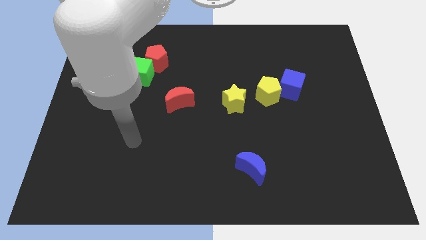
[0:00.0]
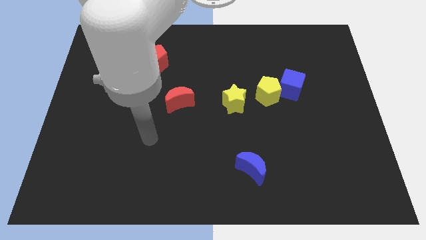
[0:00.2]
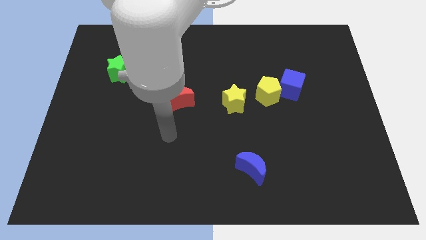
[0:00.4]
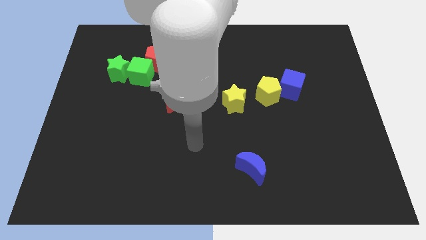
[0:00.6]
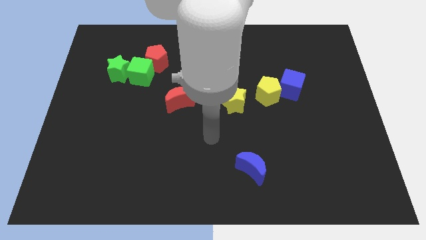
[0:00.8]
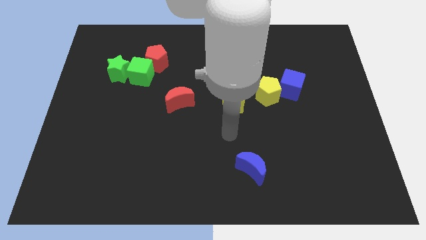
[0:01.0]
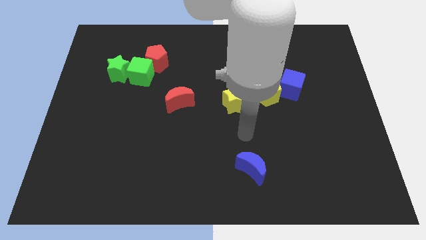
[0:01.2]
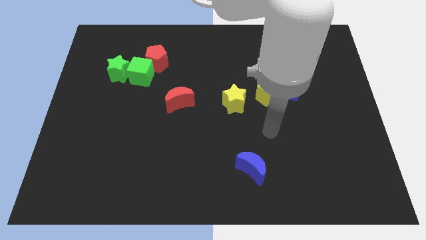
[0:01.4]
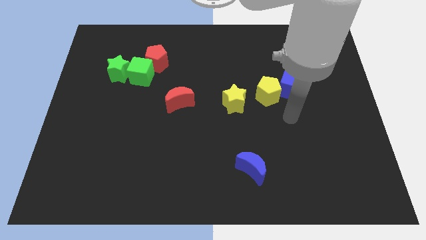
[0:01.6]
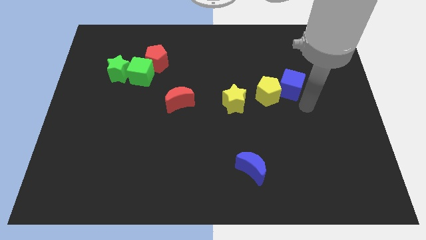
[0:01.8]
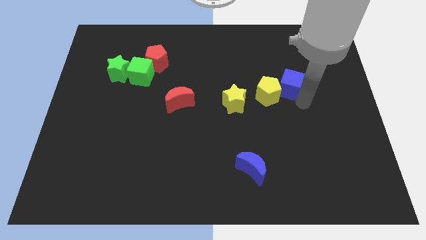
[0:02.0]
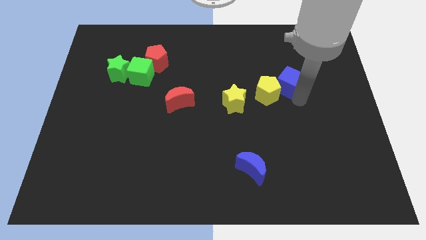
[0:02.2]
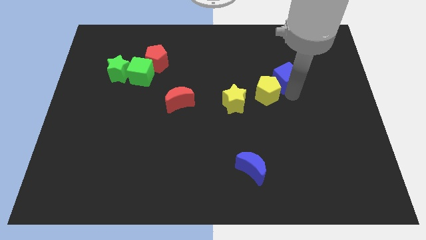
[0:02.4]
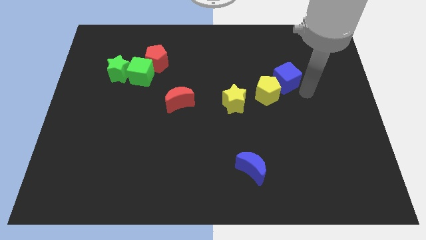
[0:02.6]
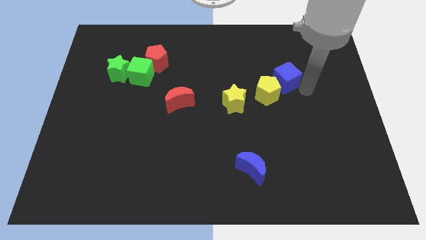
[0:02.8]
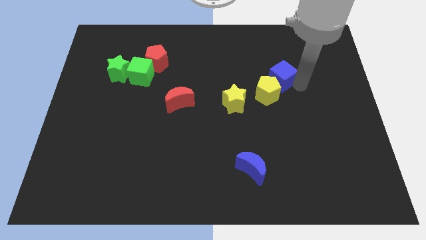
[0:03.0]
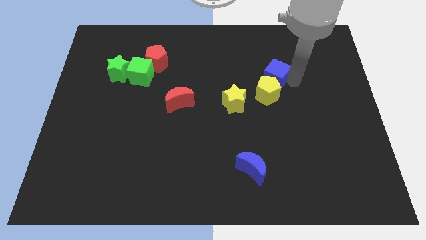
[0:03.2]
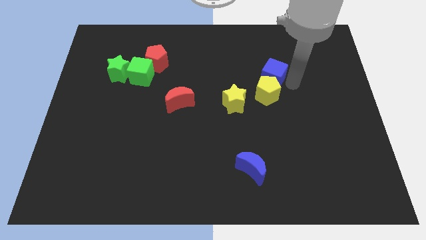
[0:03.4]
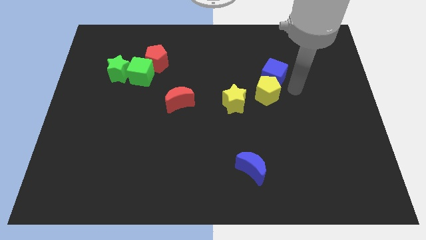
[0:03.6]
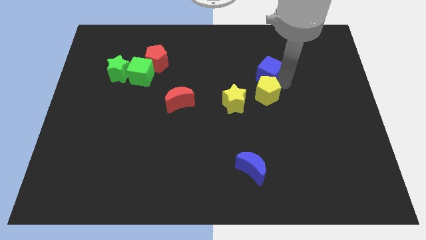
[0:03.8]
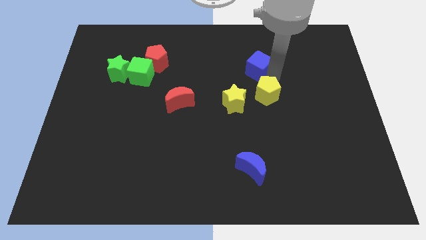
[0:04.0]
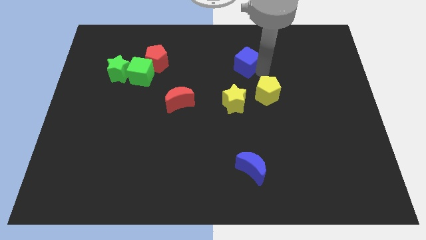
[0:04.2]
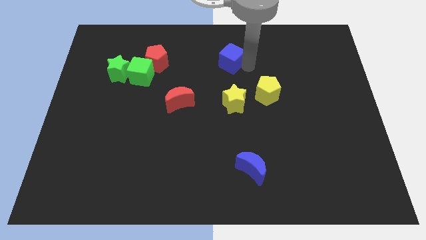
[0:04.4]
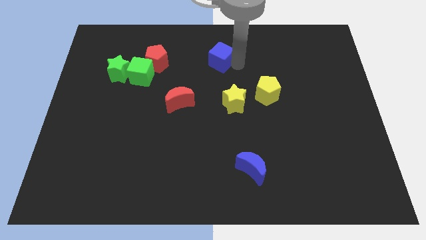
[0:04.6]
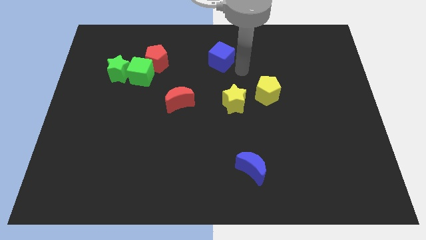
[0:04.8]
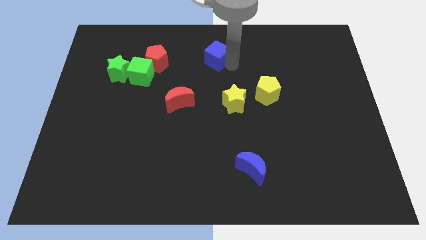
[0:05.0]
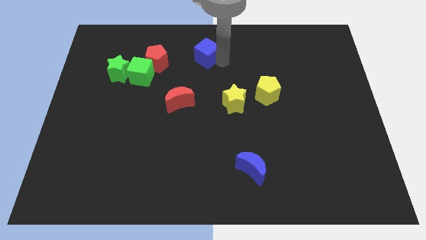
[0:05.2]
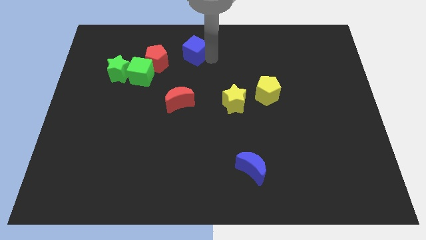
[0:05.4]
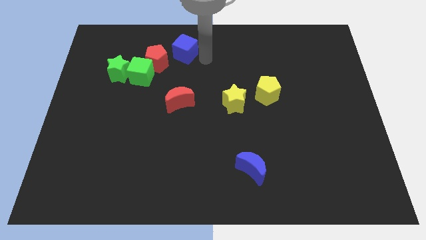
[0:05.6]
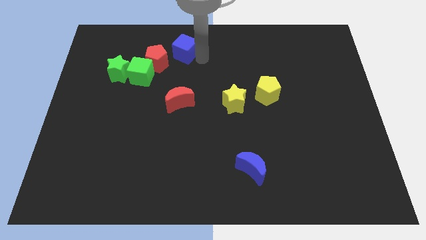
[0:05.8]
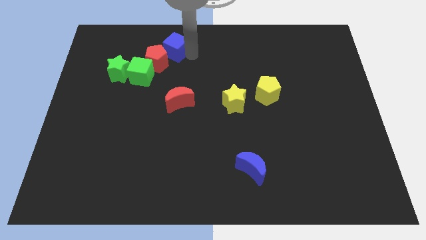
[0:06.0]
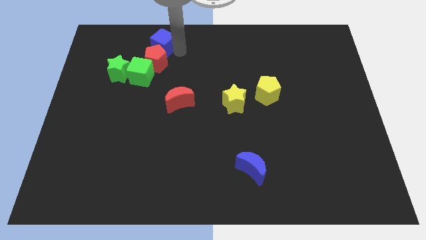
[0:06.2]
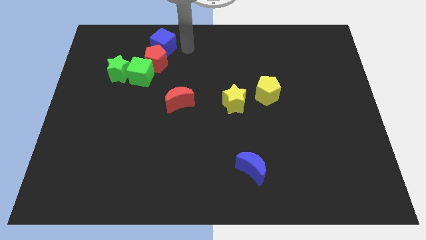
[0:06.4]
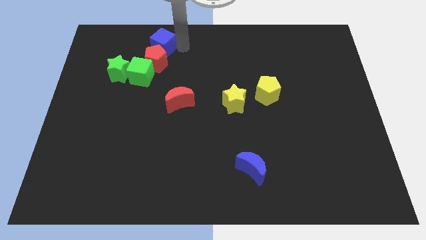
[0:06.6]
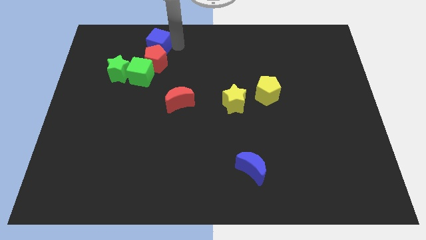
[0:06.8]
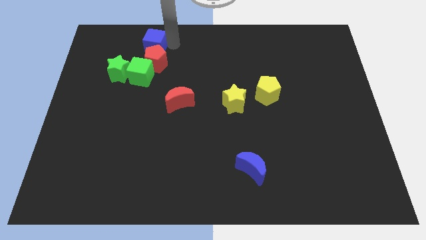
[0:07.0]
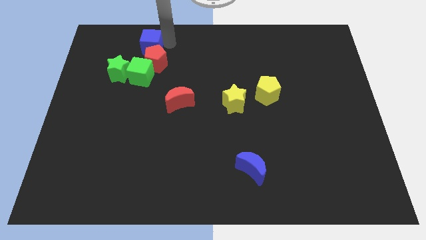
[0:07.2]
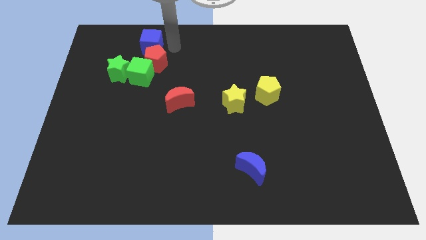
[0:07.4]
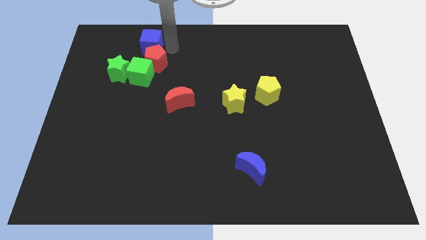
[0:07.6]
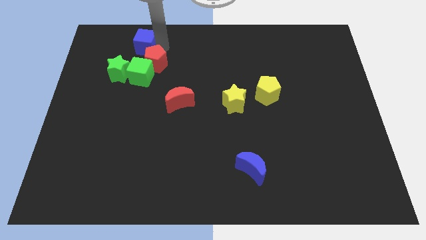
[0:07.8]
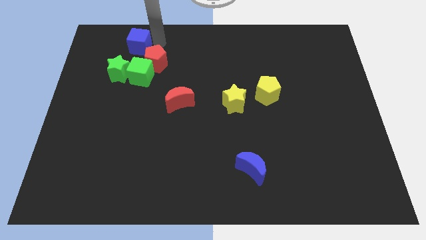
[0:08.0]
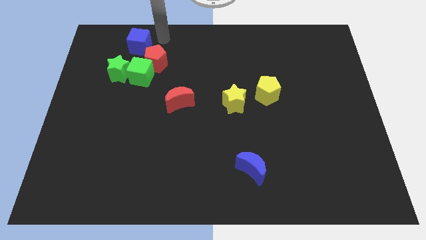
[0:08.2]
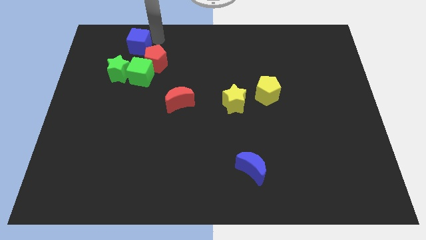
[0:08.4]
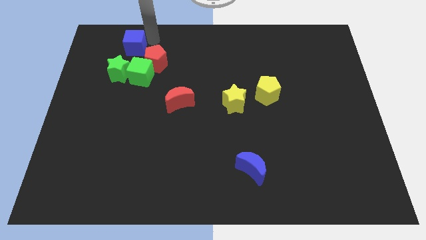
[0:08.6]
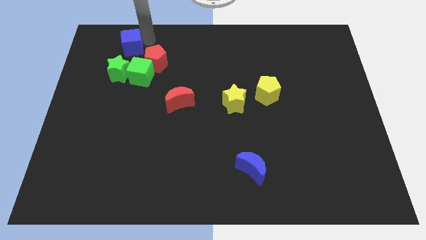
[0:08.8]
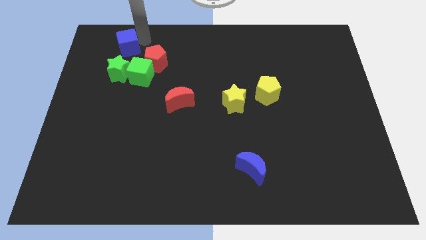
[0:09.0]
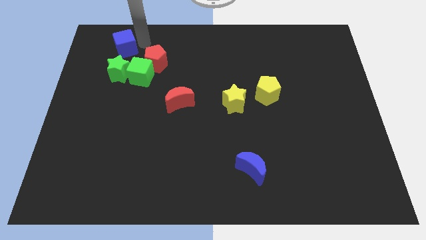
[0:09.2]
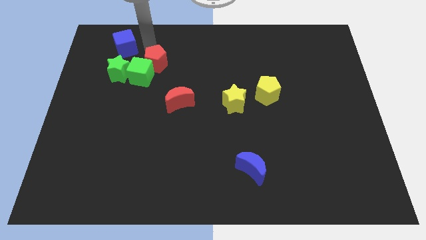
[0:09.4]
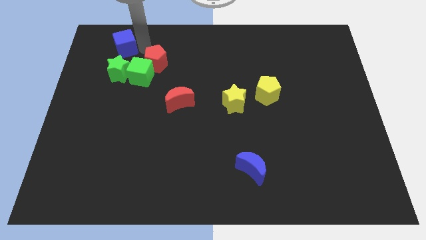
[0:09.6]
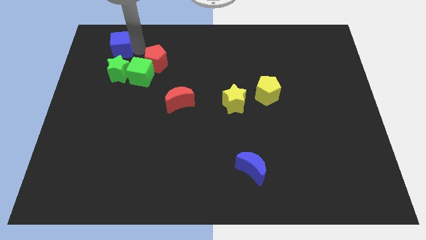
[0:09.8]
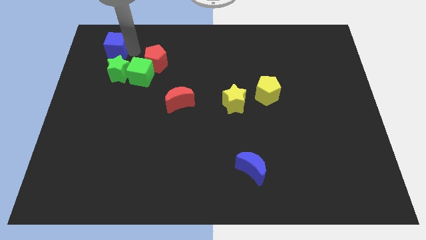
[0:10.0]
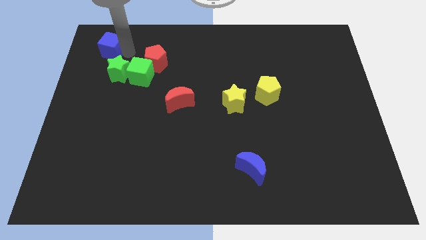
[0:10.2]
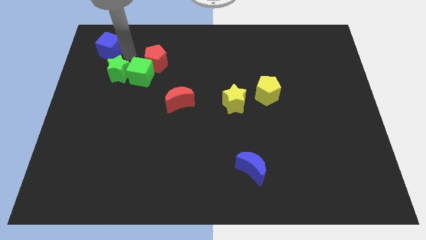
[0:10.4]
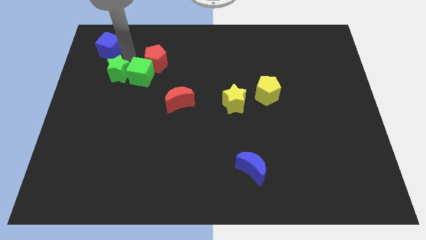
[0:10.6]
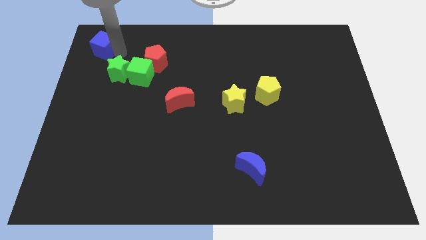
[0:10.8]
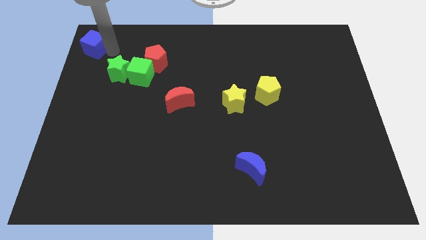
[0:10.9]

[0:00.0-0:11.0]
slide the blue cube to the top left
